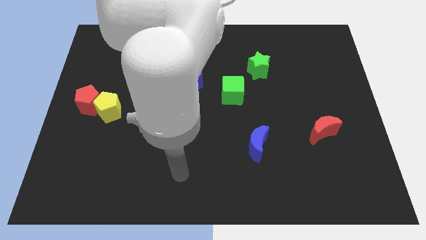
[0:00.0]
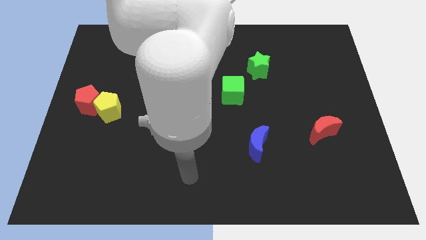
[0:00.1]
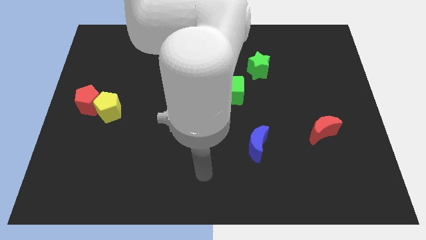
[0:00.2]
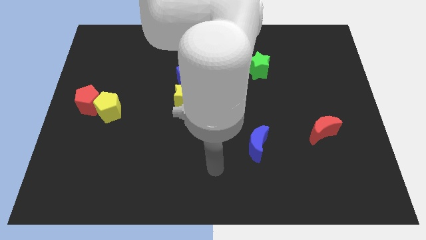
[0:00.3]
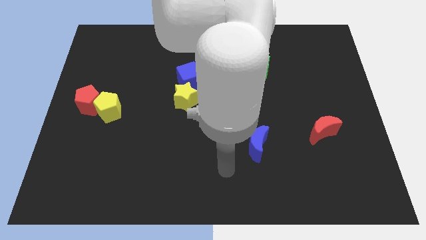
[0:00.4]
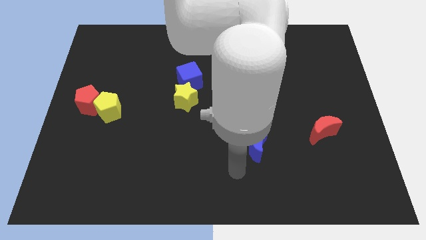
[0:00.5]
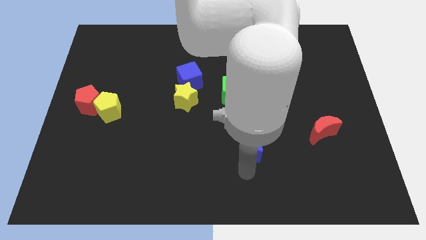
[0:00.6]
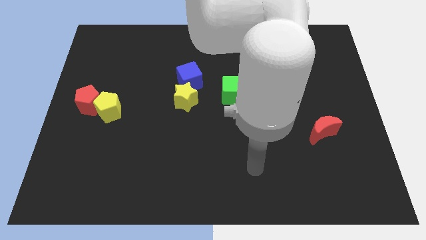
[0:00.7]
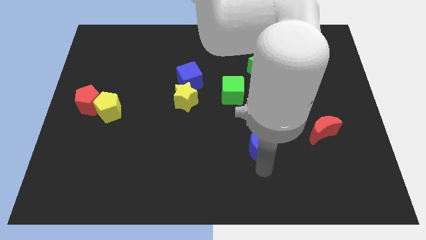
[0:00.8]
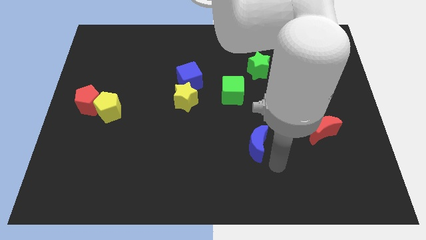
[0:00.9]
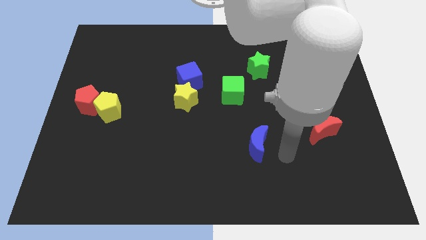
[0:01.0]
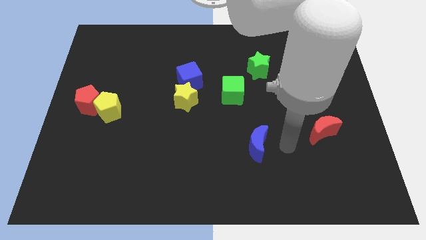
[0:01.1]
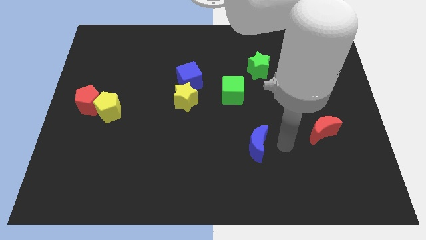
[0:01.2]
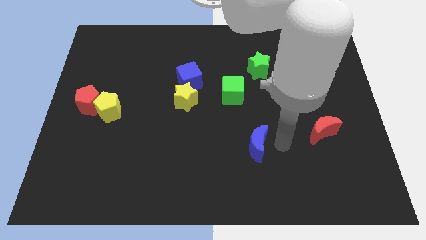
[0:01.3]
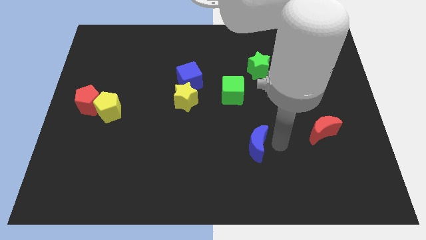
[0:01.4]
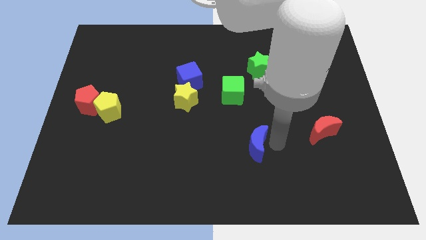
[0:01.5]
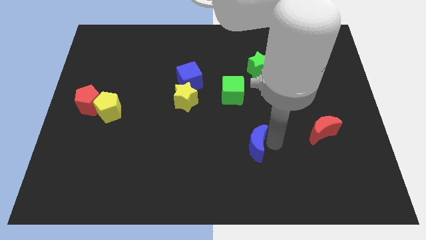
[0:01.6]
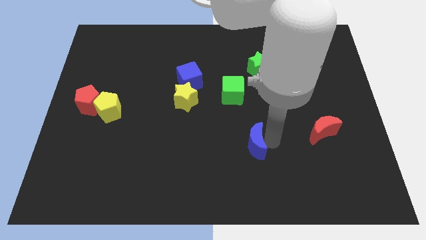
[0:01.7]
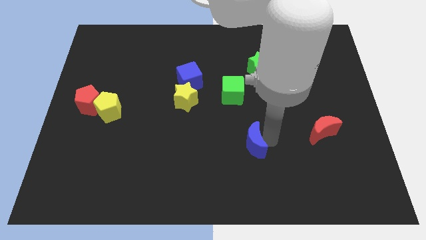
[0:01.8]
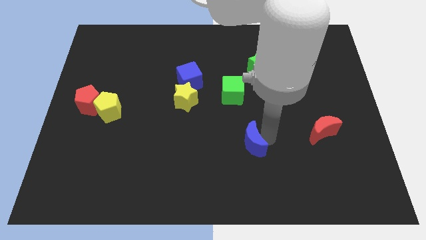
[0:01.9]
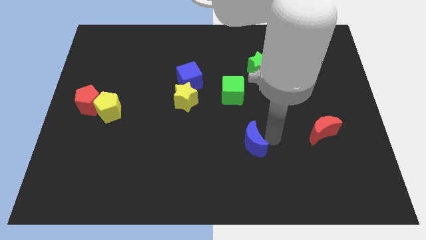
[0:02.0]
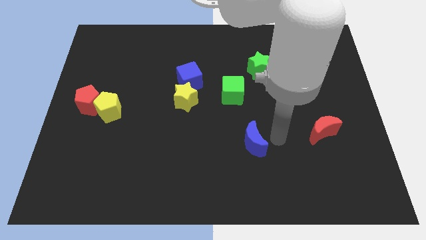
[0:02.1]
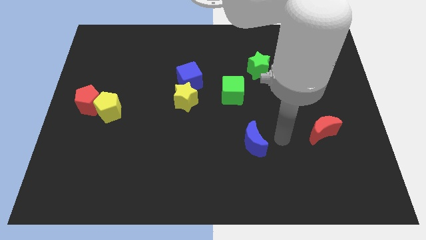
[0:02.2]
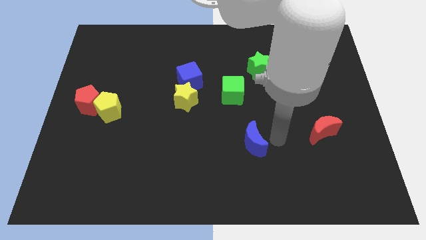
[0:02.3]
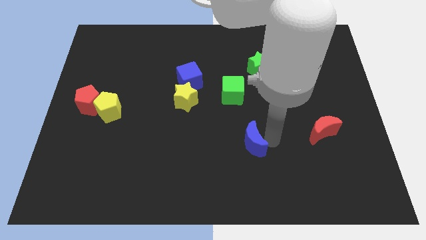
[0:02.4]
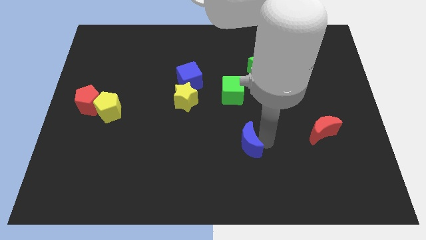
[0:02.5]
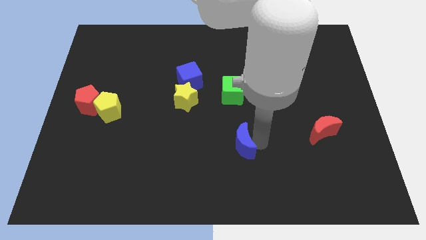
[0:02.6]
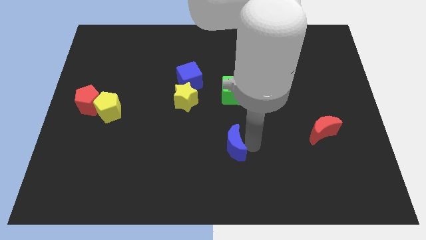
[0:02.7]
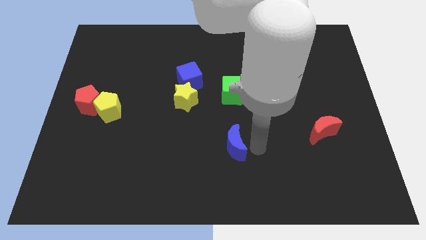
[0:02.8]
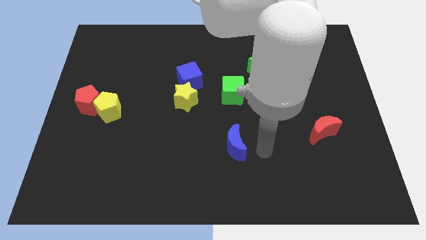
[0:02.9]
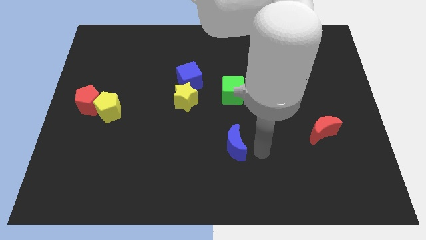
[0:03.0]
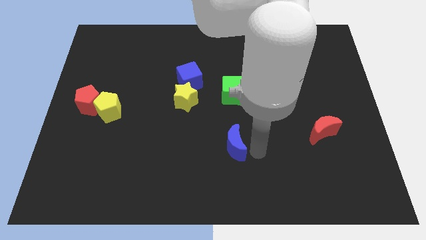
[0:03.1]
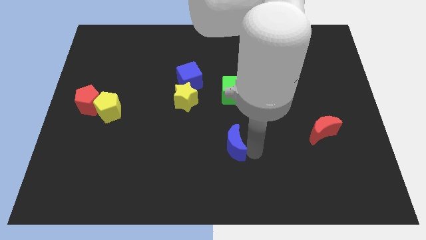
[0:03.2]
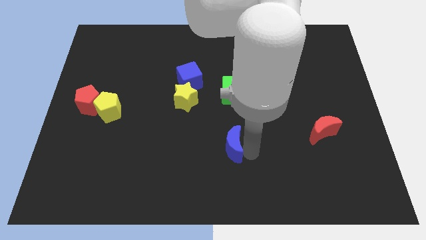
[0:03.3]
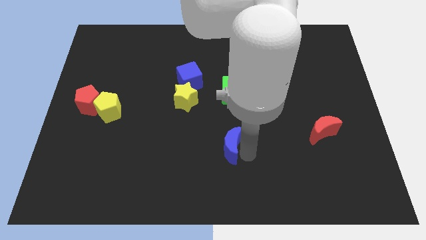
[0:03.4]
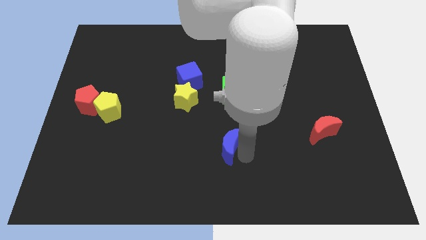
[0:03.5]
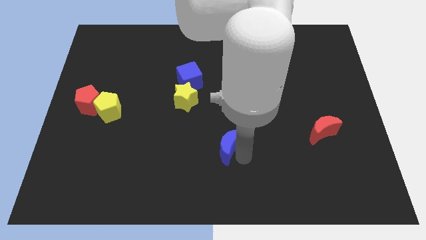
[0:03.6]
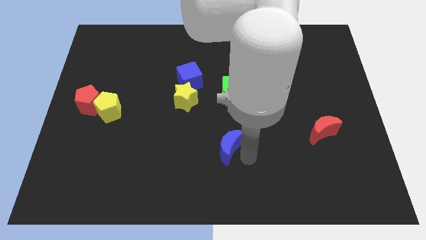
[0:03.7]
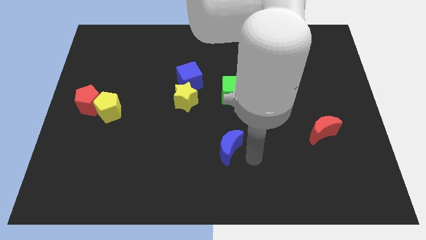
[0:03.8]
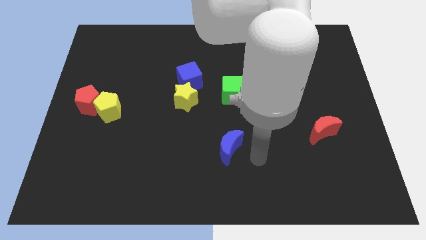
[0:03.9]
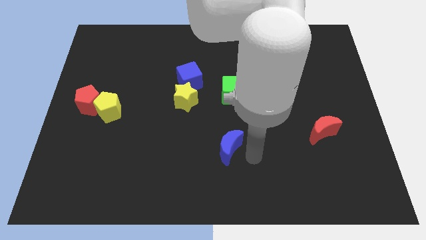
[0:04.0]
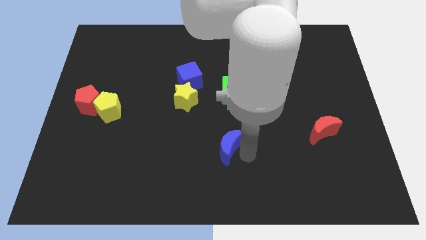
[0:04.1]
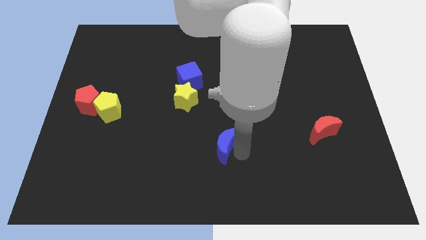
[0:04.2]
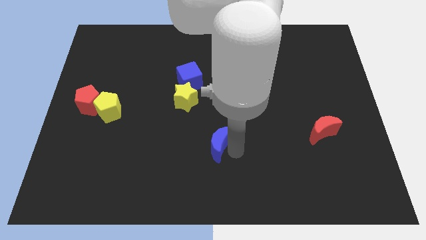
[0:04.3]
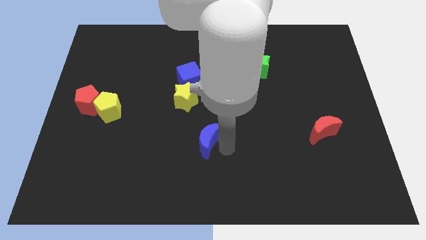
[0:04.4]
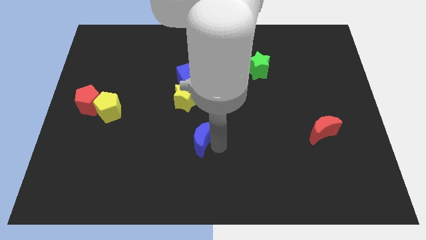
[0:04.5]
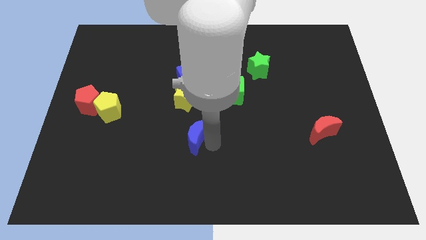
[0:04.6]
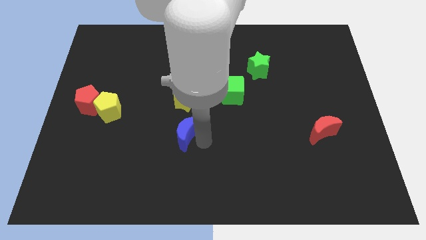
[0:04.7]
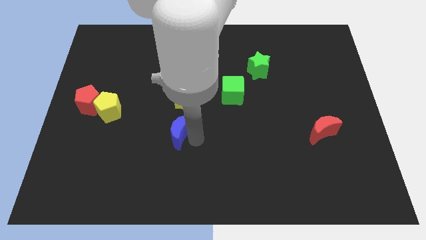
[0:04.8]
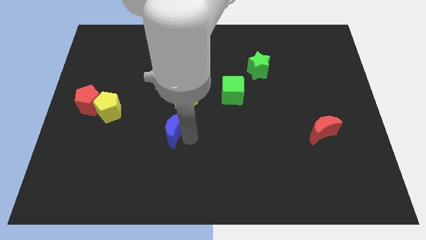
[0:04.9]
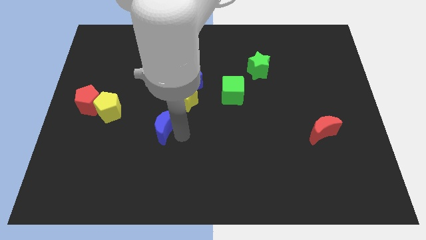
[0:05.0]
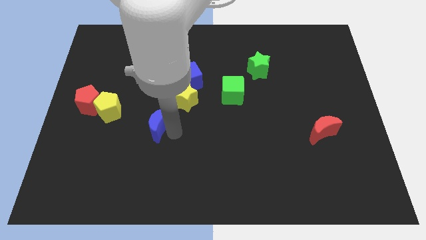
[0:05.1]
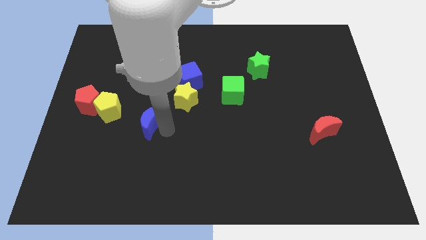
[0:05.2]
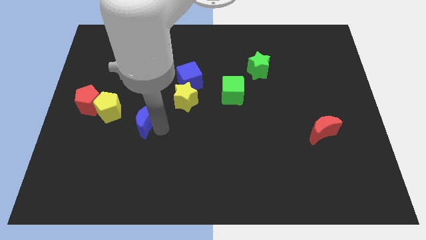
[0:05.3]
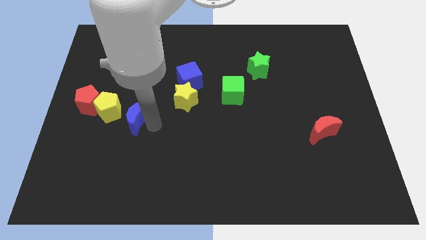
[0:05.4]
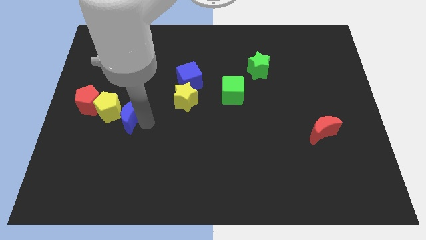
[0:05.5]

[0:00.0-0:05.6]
push the blue moon to the yellow pentagon

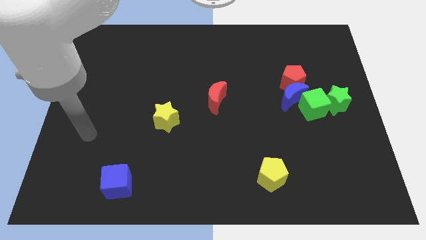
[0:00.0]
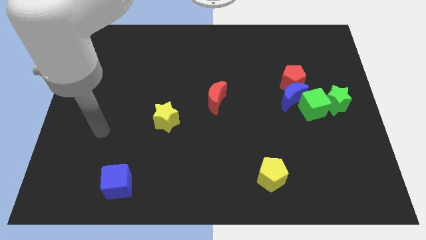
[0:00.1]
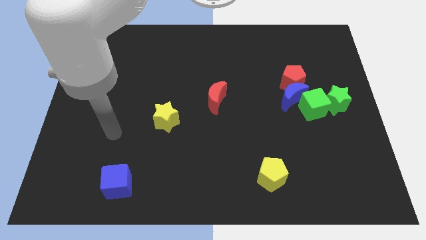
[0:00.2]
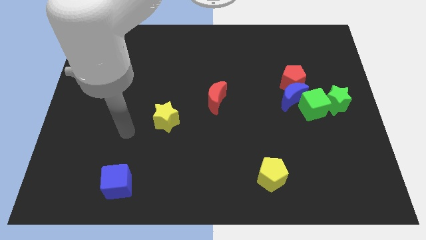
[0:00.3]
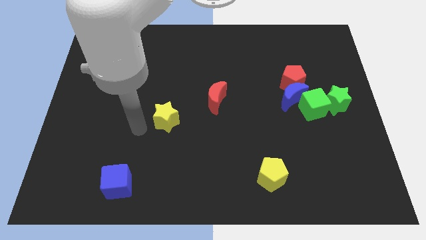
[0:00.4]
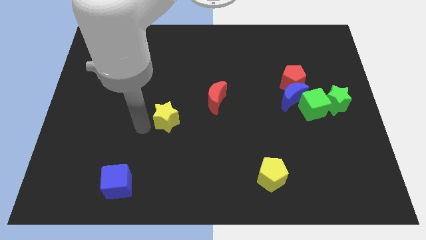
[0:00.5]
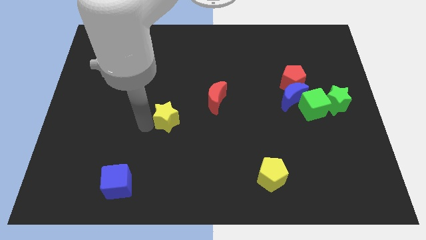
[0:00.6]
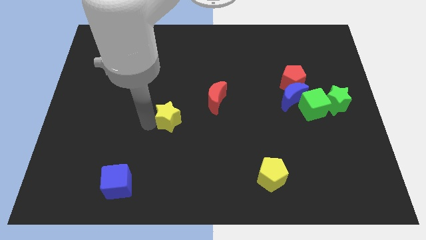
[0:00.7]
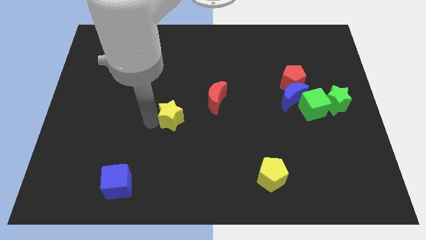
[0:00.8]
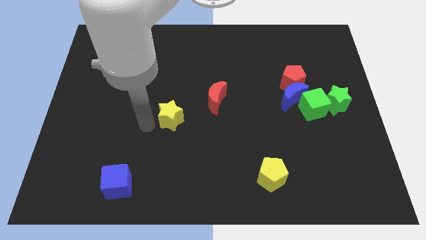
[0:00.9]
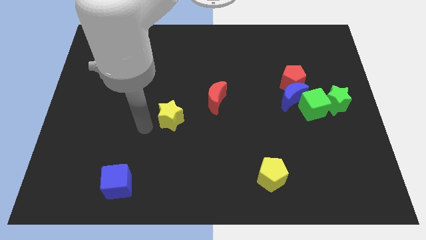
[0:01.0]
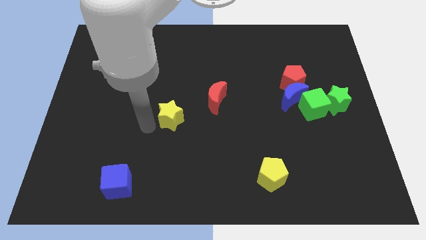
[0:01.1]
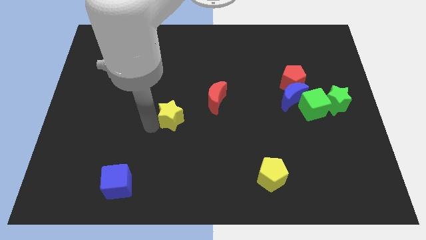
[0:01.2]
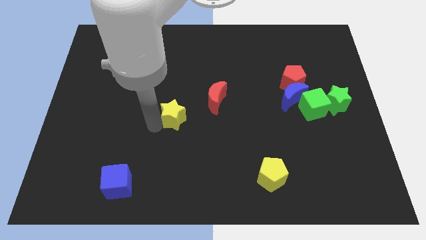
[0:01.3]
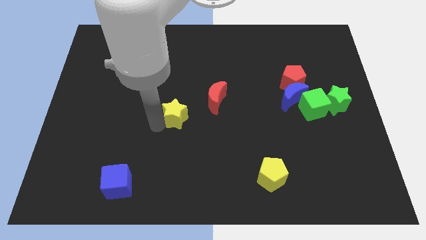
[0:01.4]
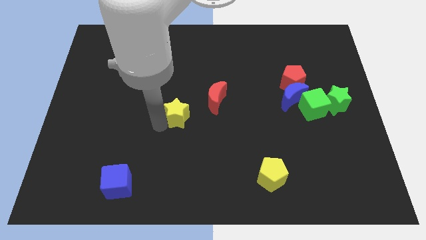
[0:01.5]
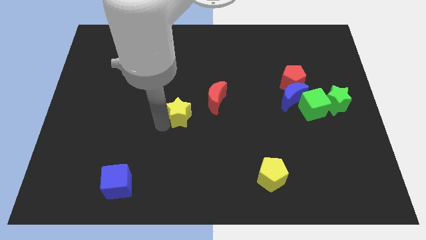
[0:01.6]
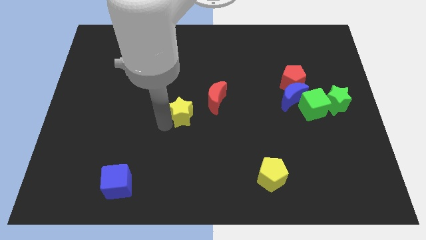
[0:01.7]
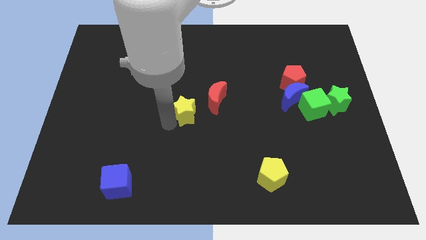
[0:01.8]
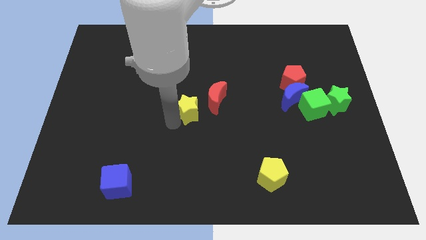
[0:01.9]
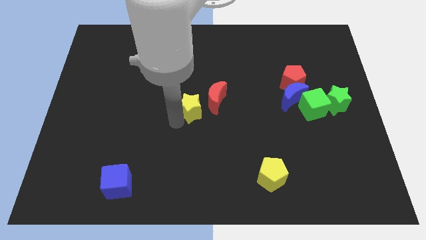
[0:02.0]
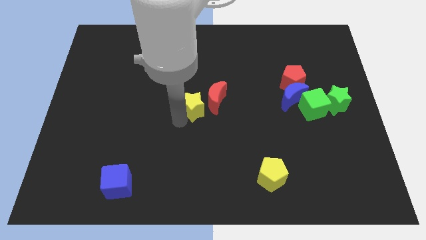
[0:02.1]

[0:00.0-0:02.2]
put the yellow star next to the red moon
